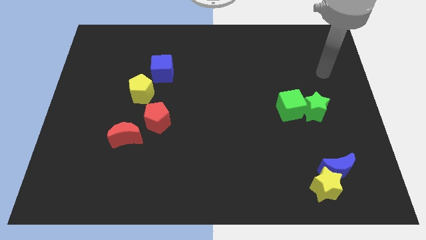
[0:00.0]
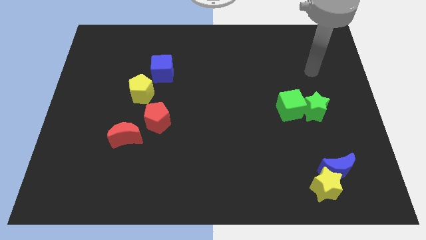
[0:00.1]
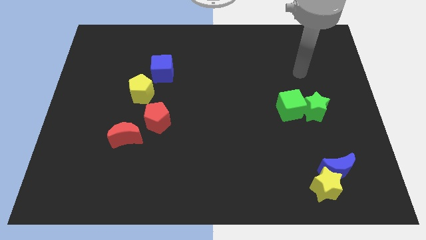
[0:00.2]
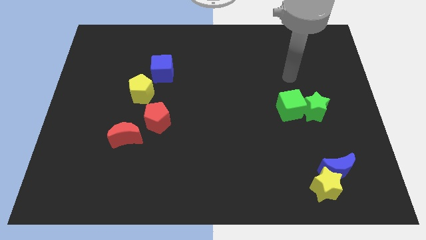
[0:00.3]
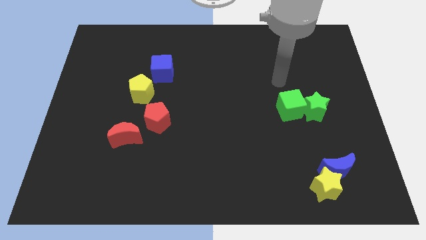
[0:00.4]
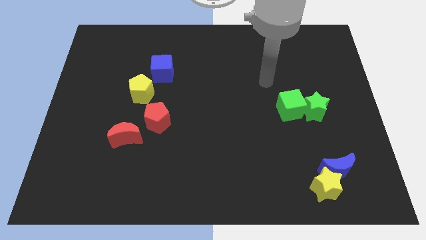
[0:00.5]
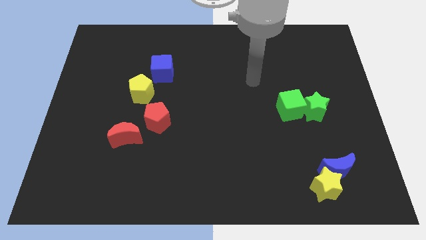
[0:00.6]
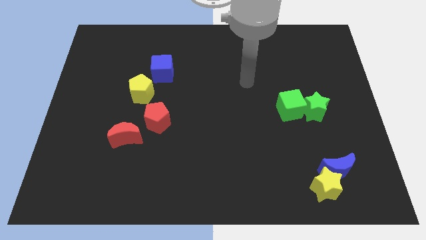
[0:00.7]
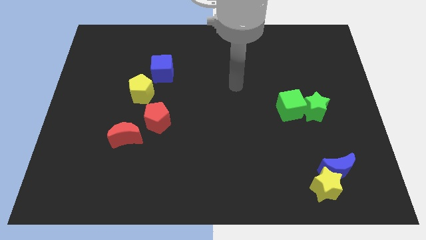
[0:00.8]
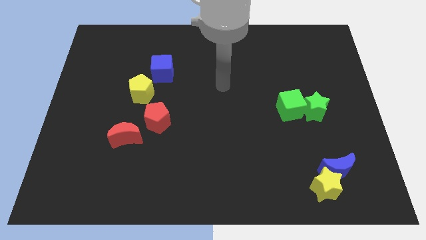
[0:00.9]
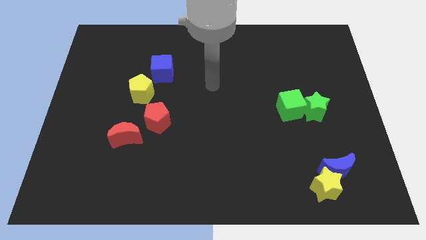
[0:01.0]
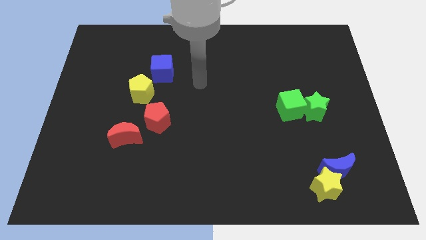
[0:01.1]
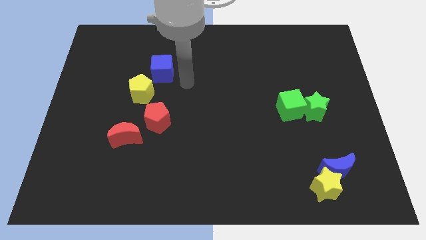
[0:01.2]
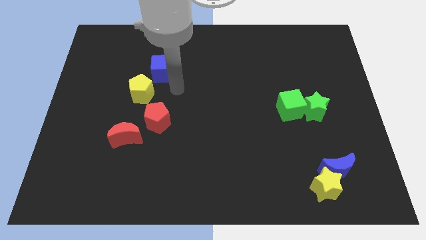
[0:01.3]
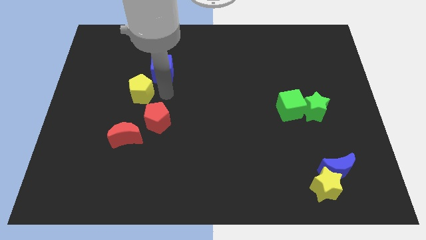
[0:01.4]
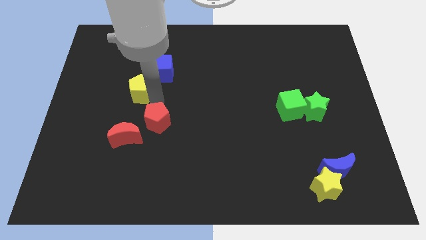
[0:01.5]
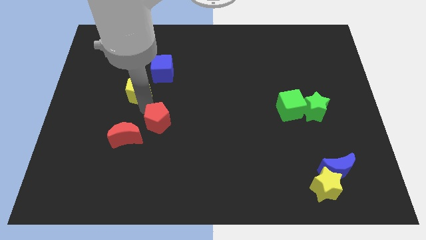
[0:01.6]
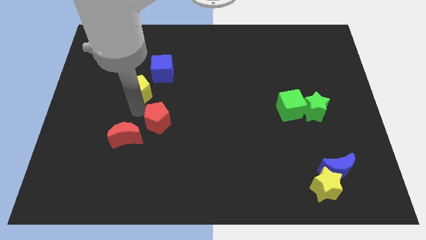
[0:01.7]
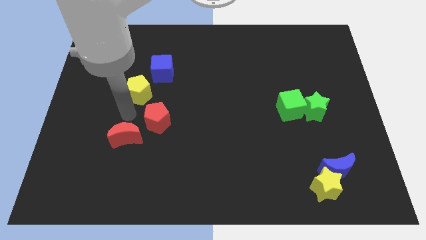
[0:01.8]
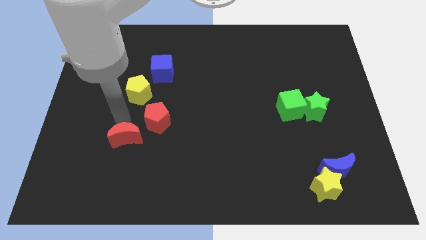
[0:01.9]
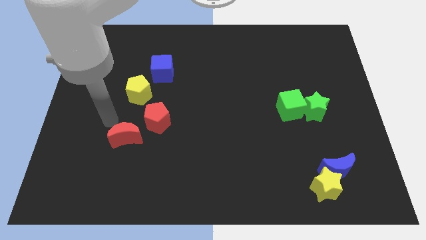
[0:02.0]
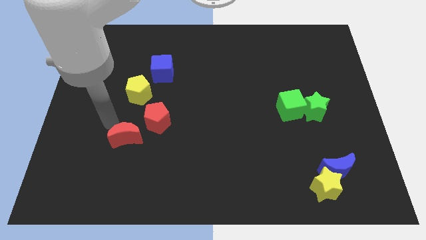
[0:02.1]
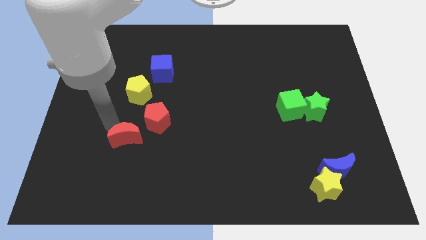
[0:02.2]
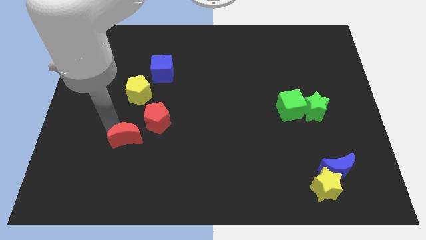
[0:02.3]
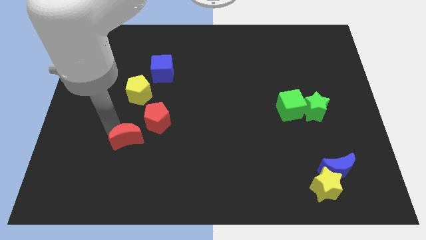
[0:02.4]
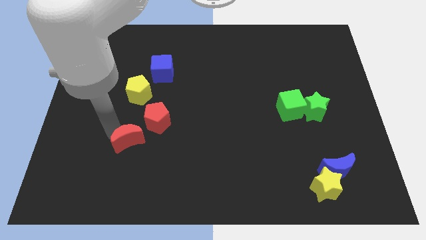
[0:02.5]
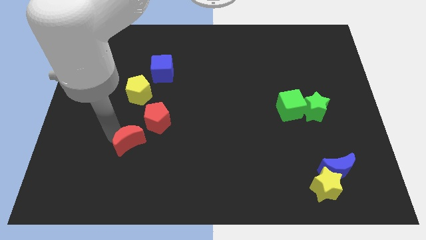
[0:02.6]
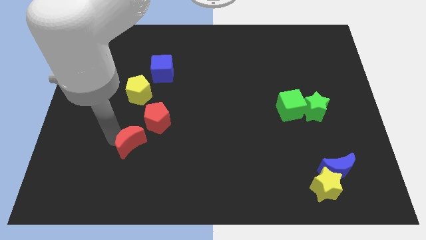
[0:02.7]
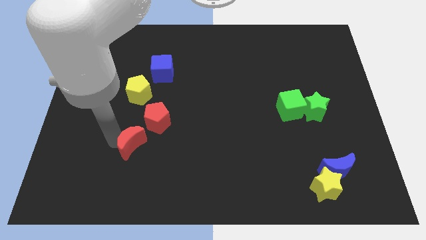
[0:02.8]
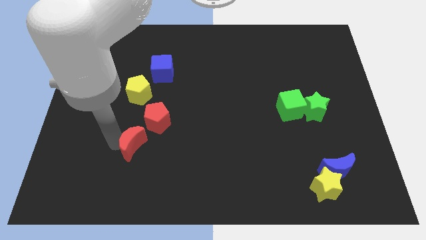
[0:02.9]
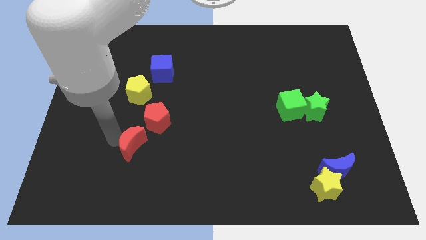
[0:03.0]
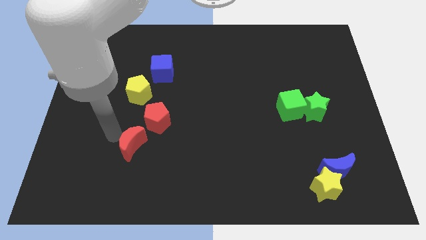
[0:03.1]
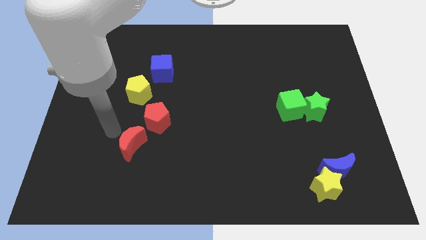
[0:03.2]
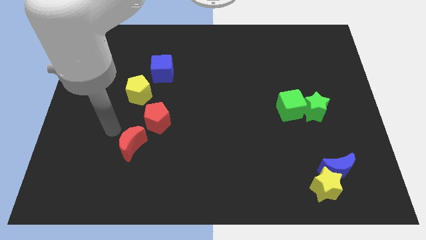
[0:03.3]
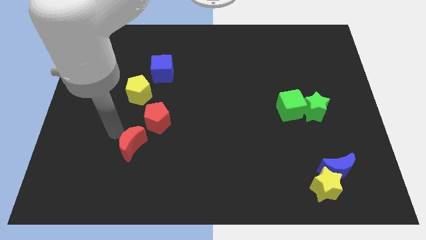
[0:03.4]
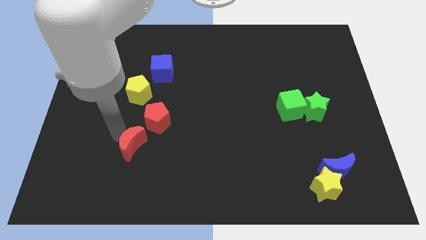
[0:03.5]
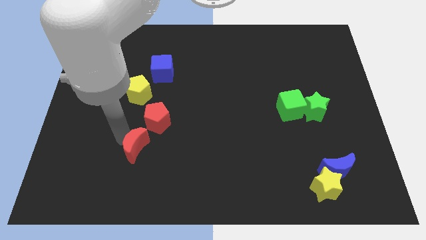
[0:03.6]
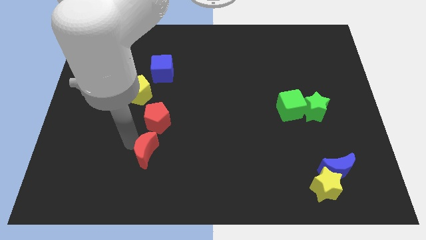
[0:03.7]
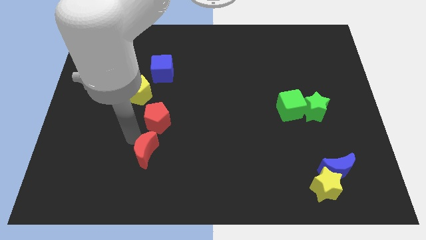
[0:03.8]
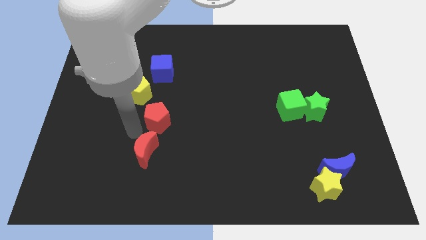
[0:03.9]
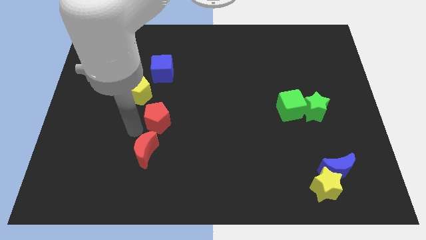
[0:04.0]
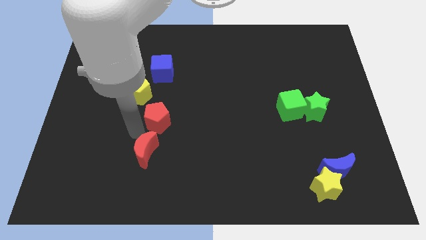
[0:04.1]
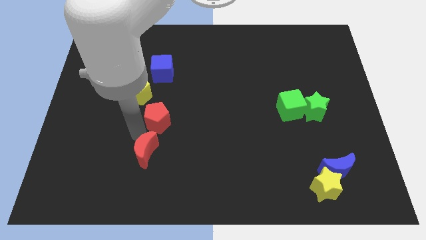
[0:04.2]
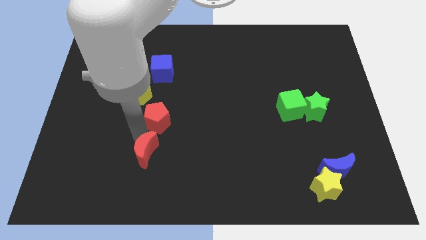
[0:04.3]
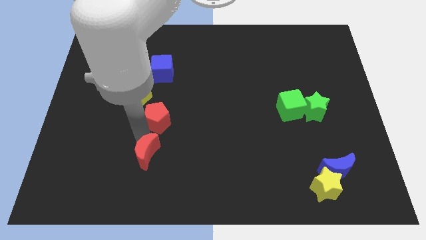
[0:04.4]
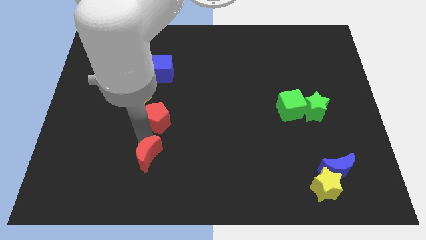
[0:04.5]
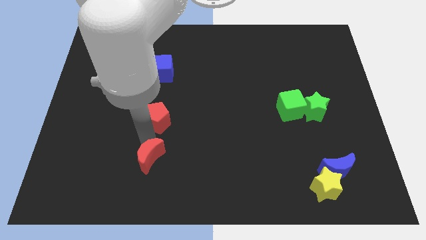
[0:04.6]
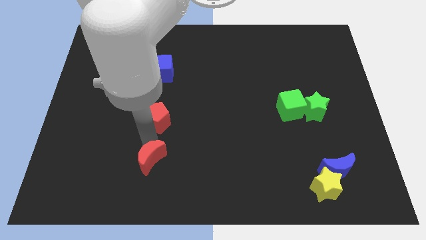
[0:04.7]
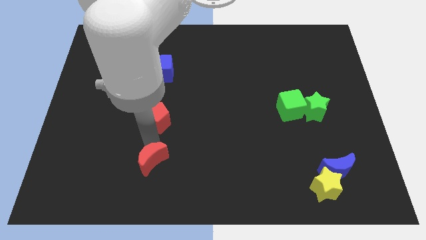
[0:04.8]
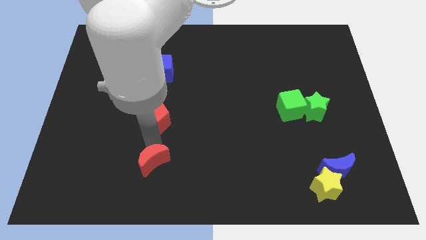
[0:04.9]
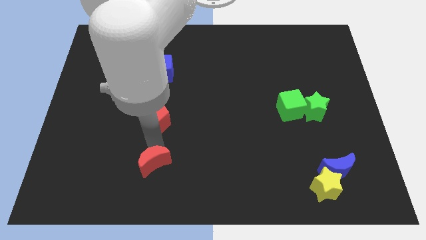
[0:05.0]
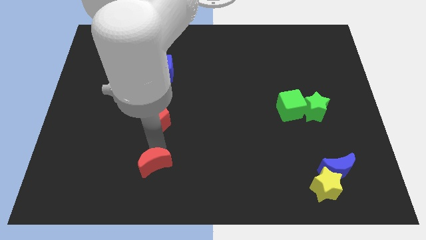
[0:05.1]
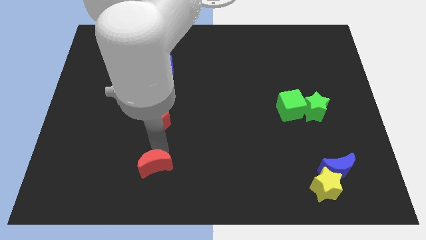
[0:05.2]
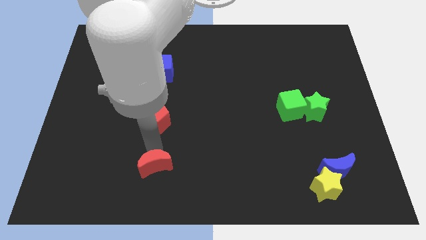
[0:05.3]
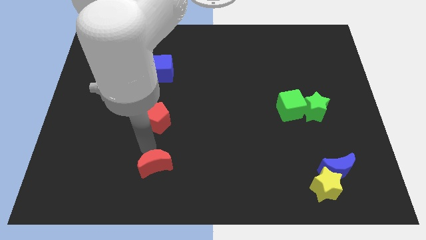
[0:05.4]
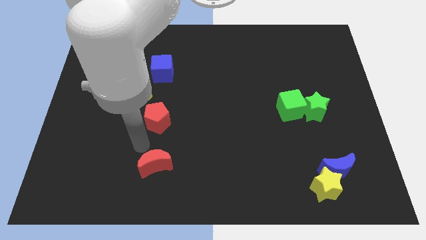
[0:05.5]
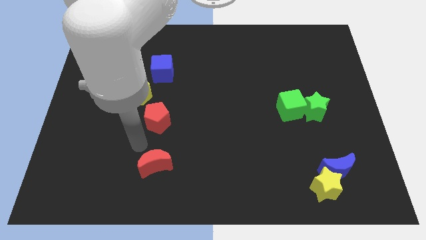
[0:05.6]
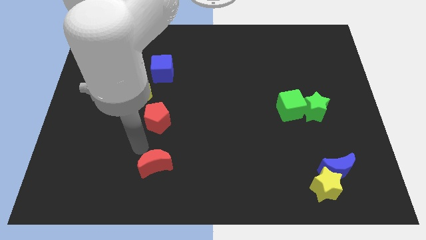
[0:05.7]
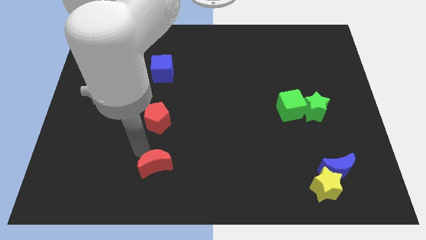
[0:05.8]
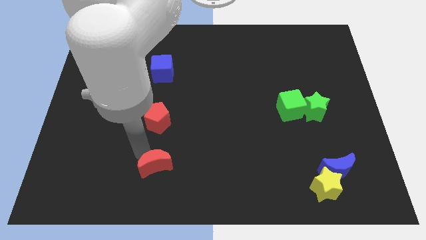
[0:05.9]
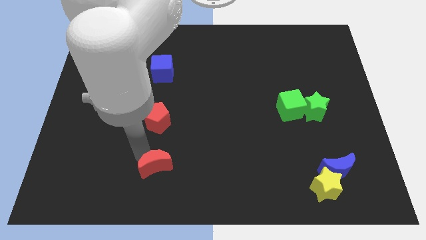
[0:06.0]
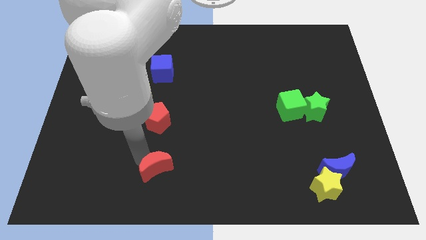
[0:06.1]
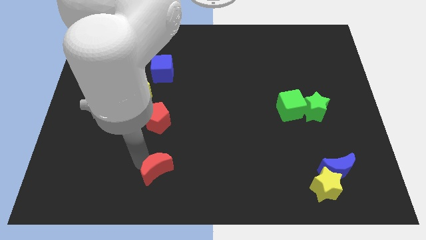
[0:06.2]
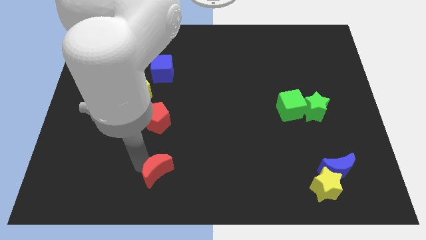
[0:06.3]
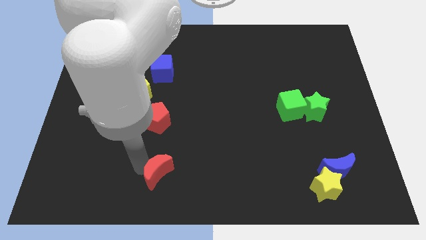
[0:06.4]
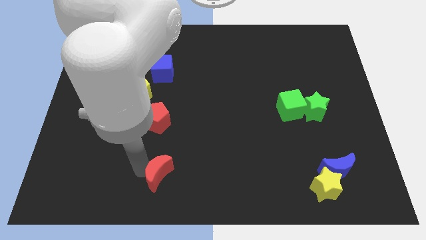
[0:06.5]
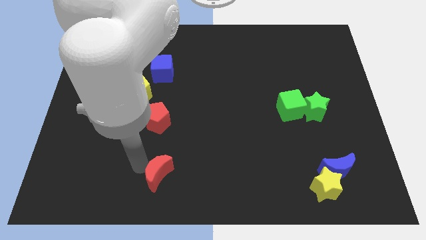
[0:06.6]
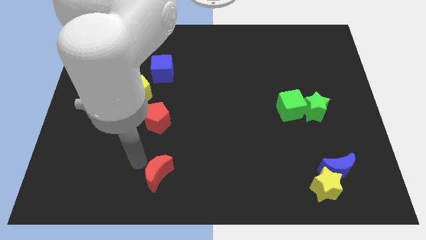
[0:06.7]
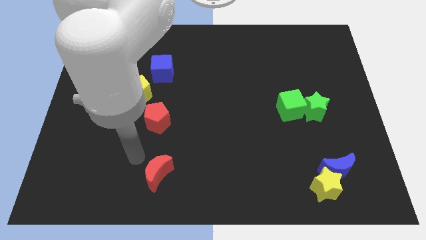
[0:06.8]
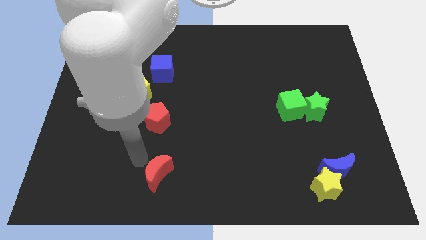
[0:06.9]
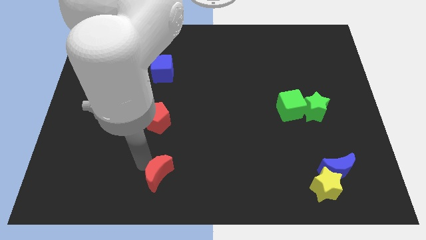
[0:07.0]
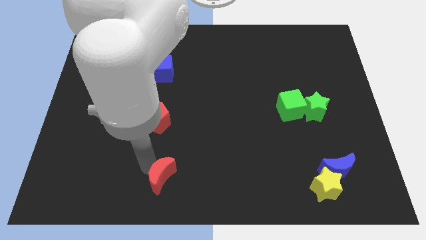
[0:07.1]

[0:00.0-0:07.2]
put the red moon to the bottom side
